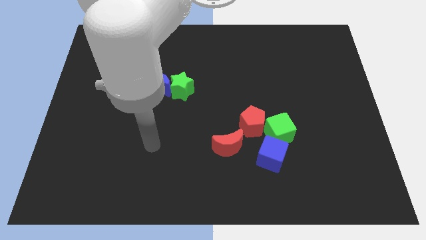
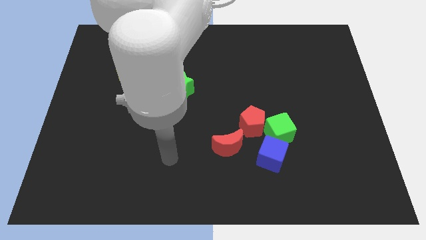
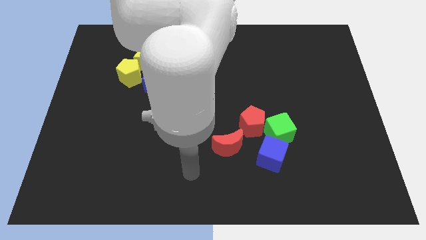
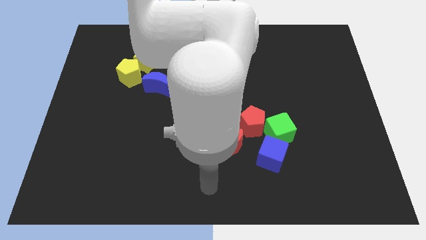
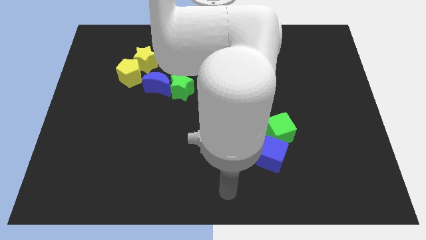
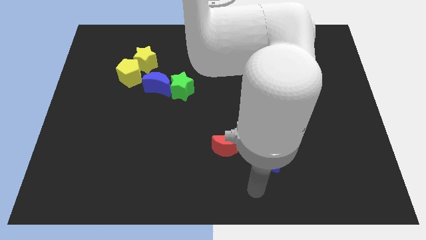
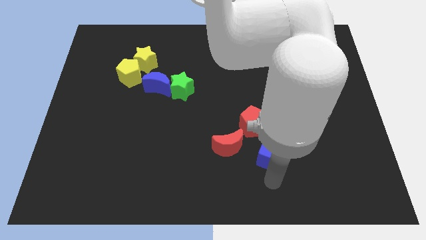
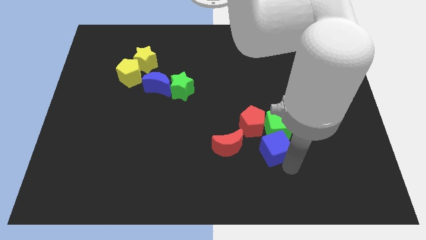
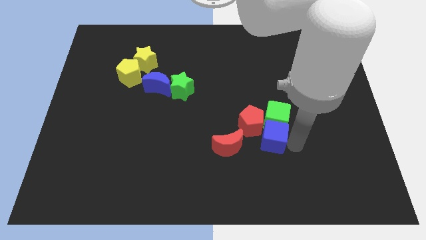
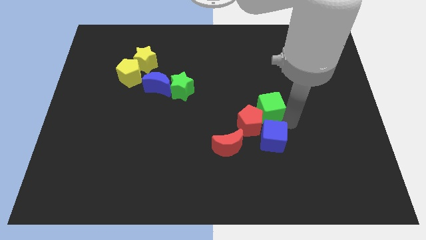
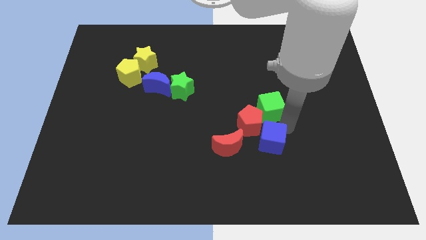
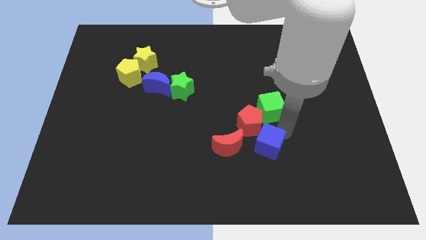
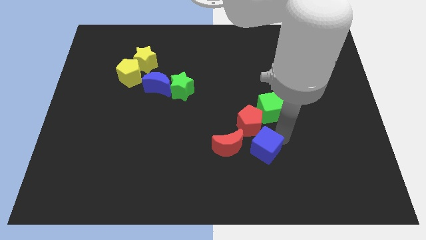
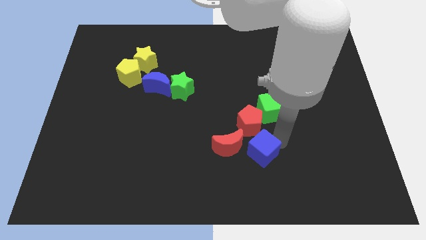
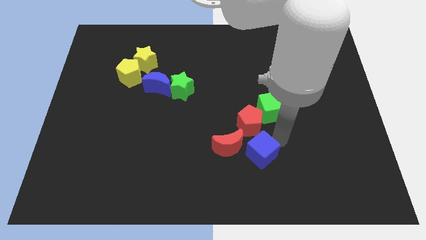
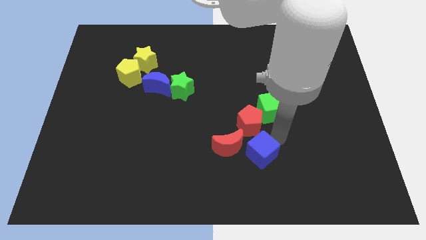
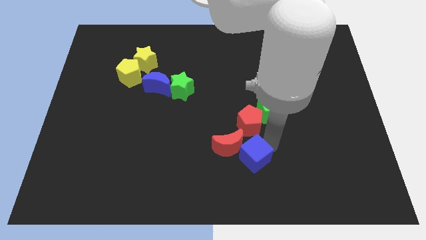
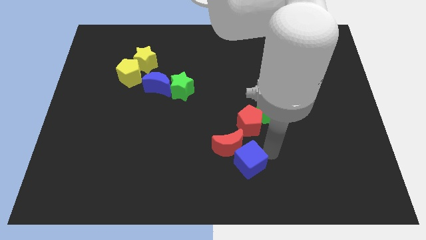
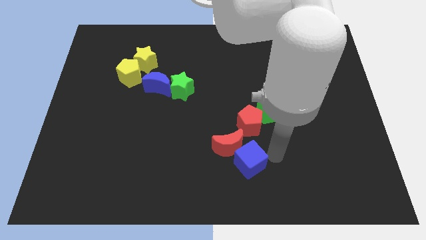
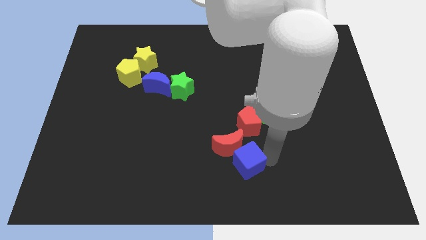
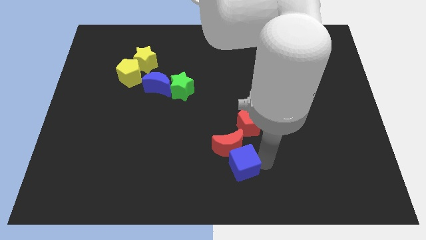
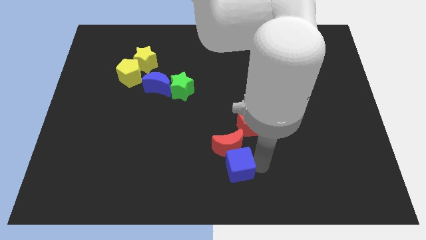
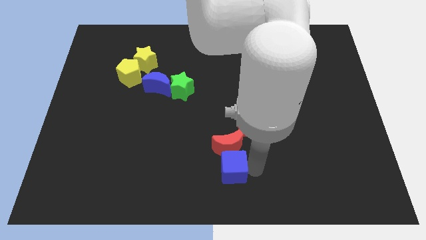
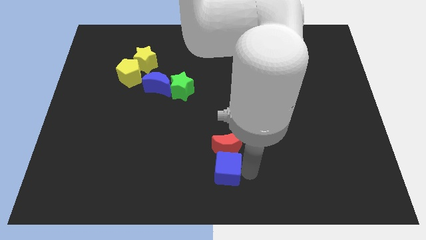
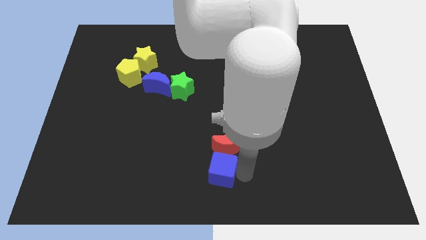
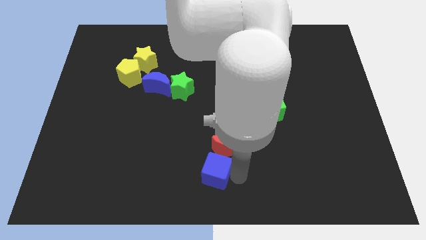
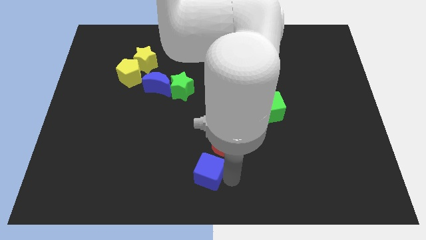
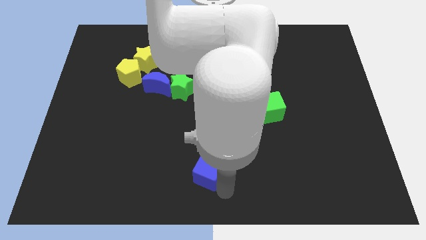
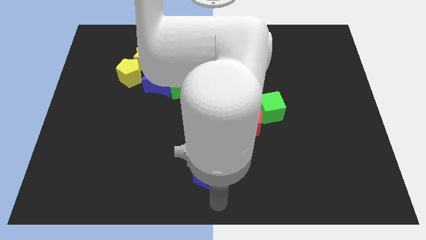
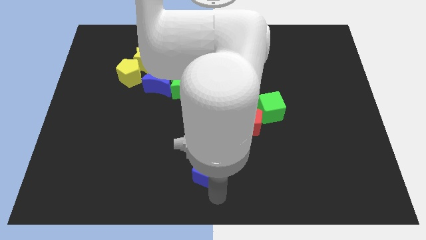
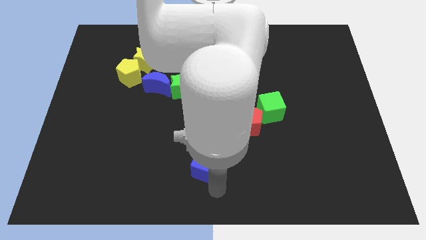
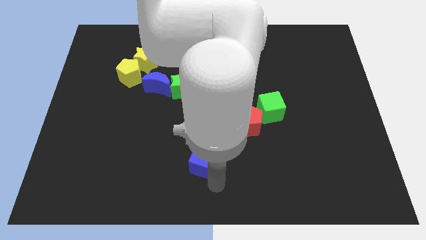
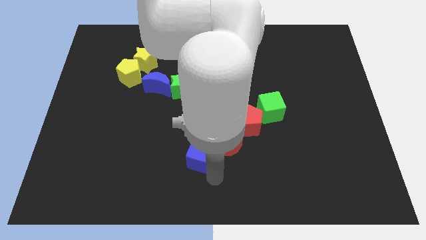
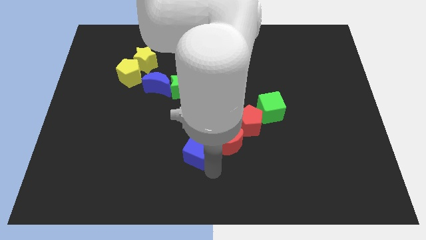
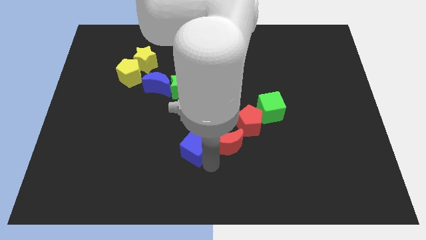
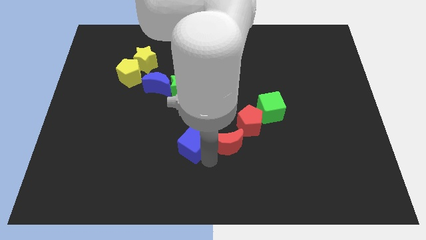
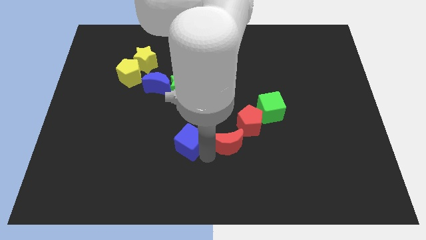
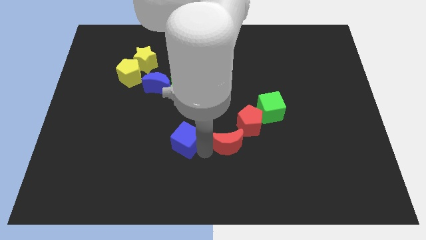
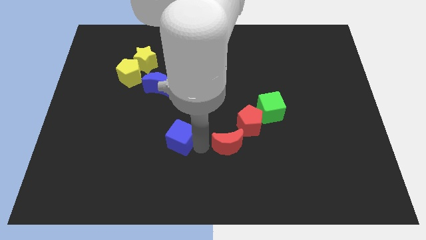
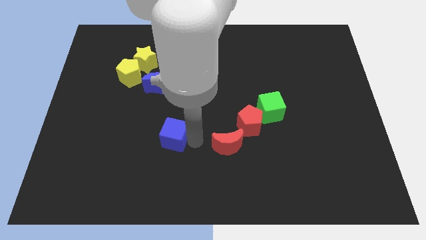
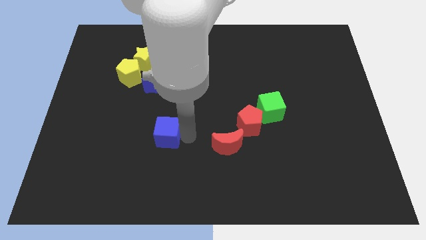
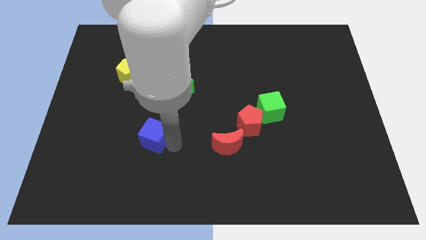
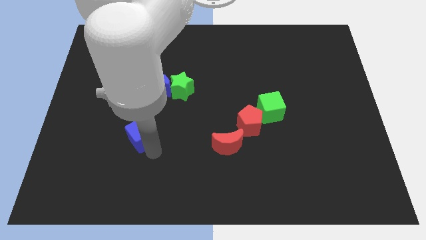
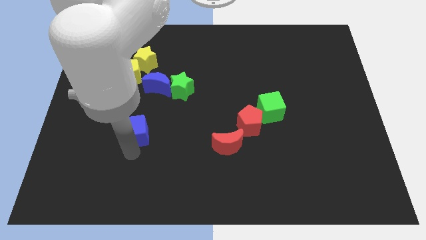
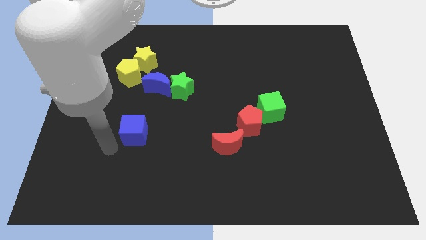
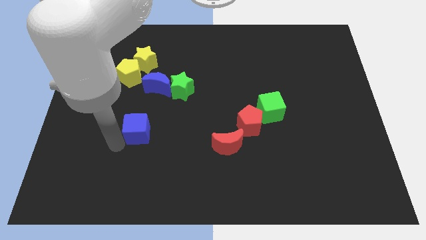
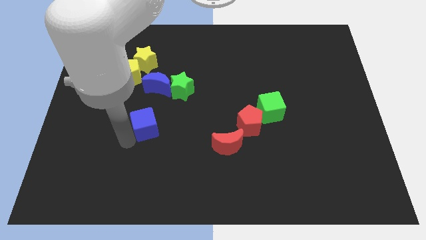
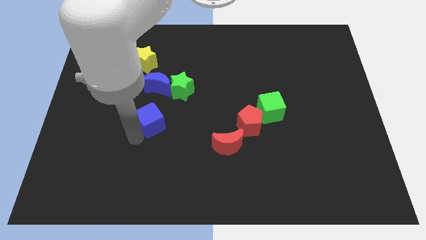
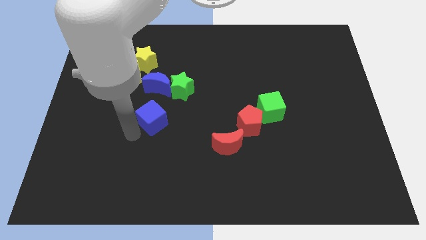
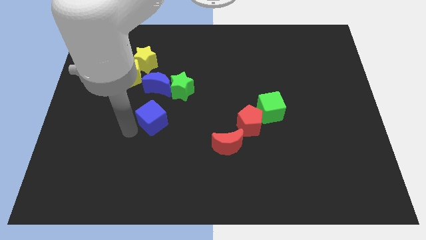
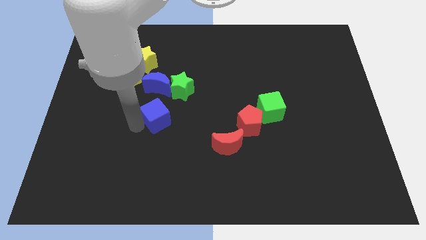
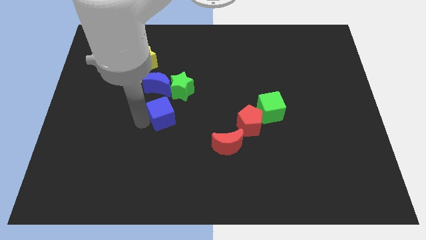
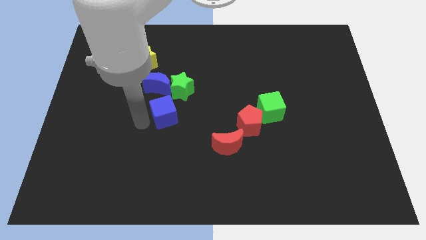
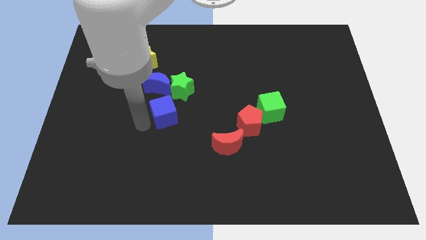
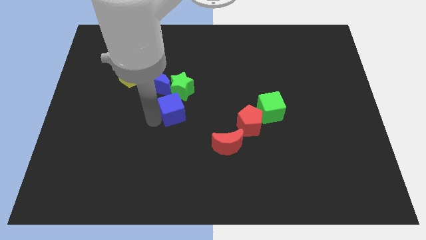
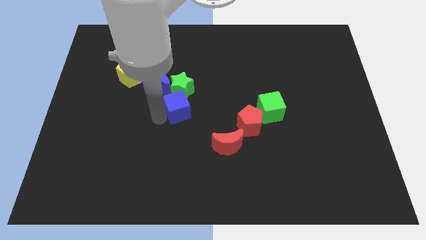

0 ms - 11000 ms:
move the blue cube to the green star

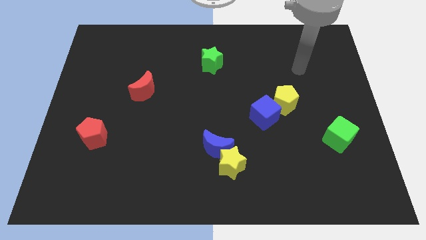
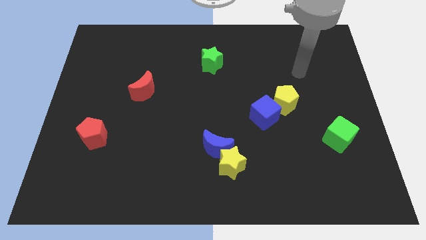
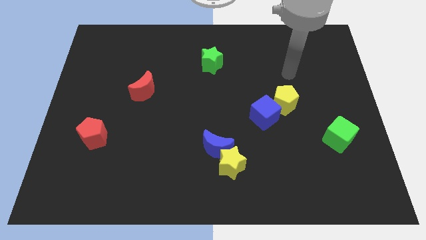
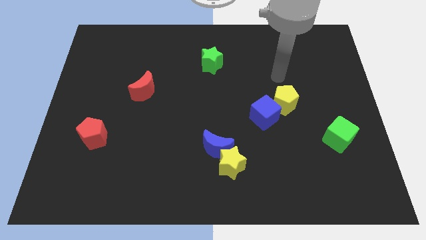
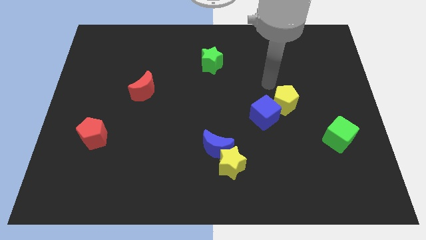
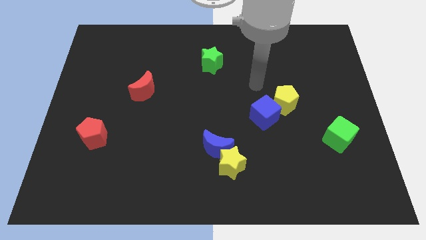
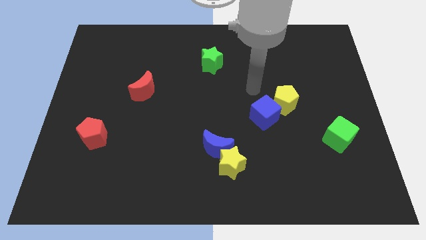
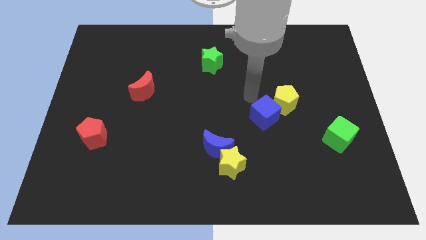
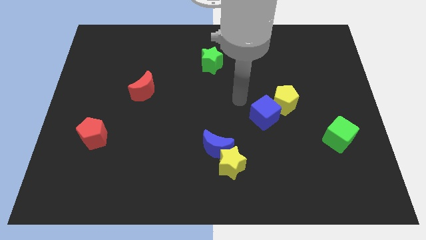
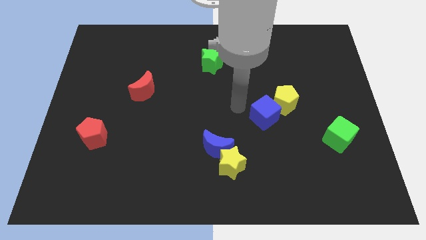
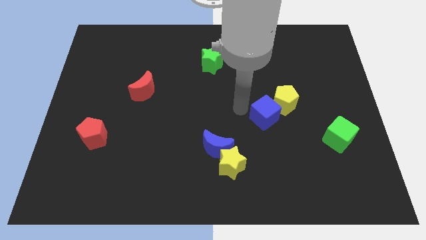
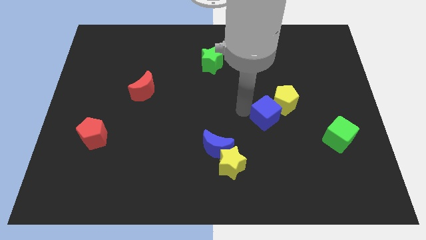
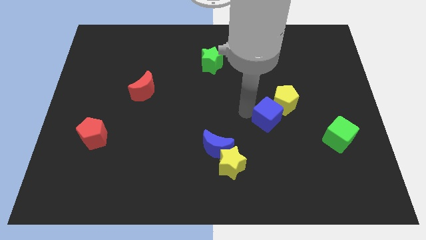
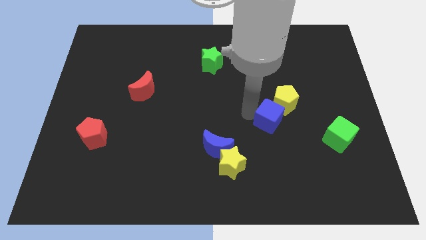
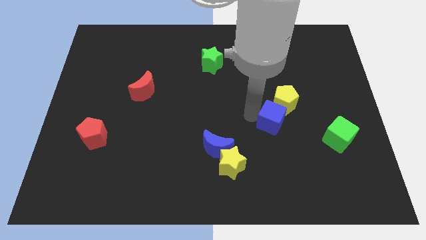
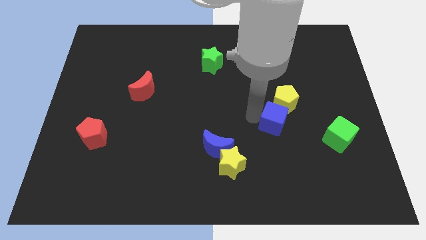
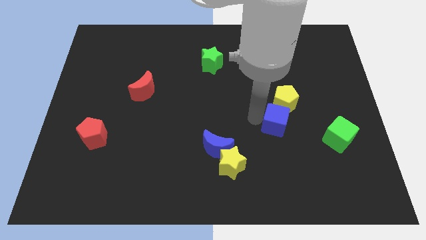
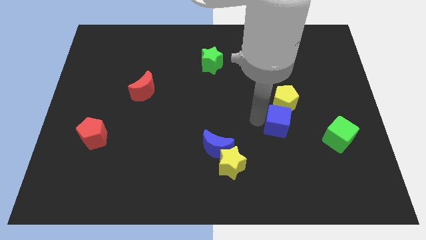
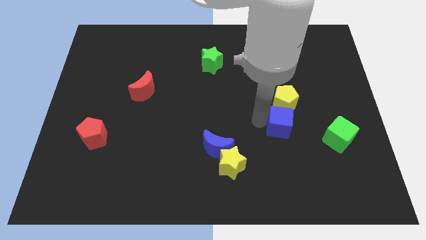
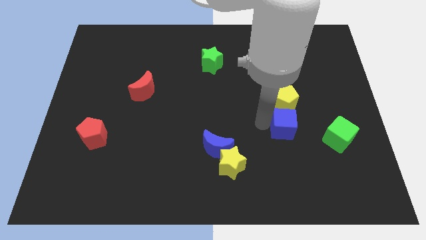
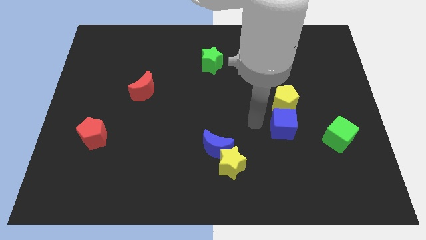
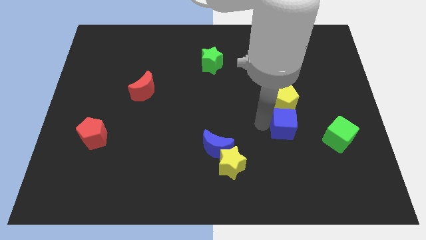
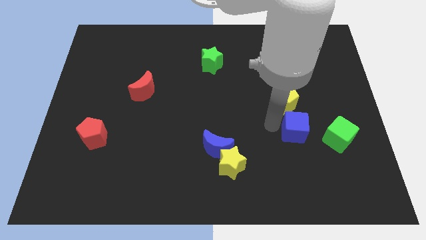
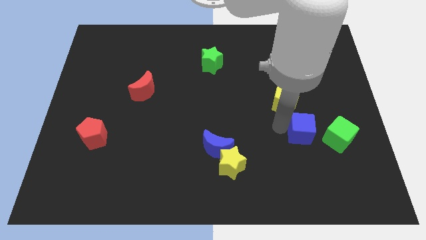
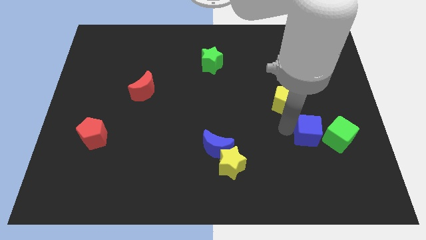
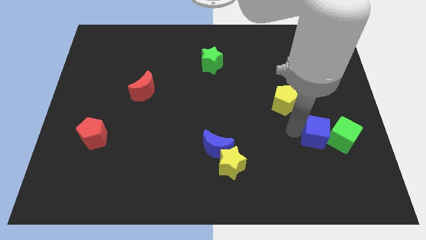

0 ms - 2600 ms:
slide the blue cube towards the green cube

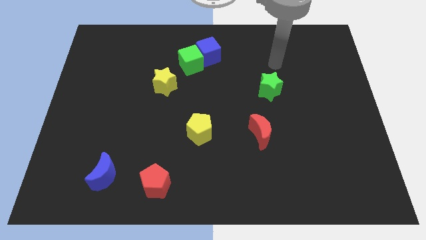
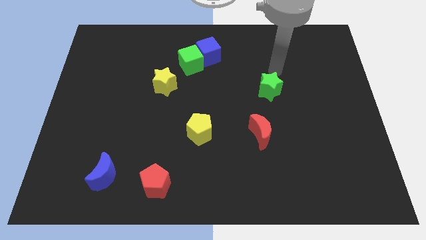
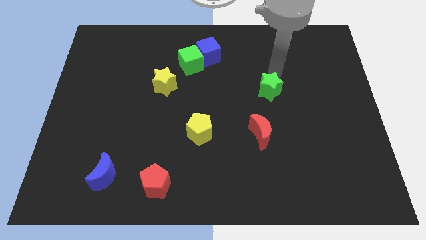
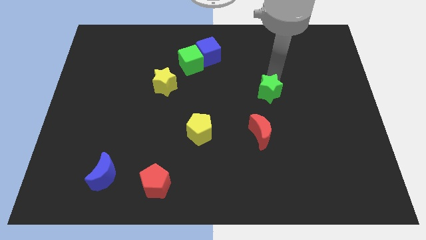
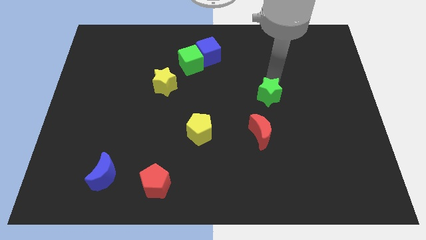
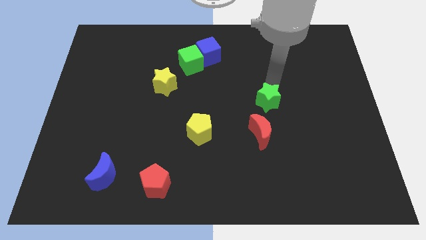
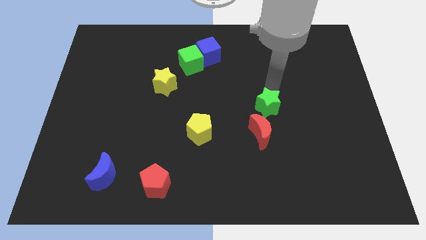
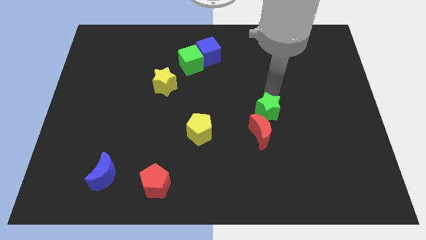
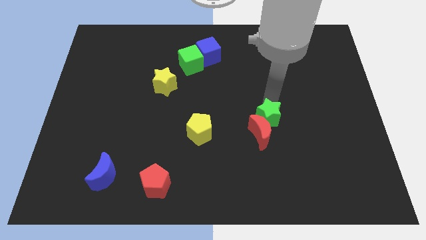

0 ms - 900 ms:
slide the green star close to the red moon
